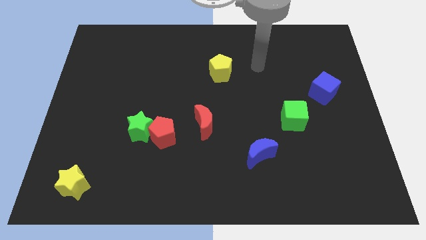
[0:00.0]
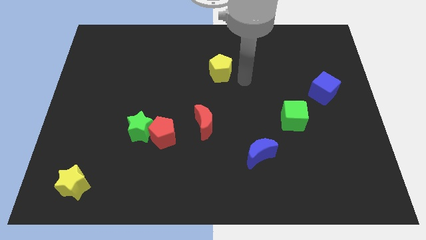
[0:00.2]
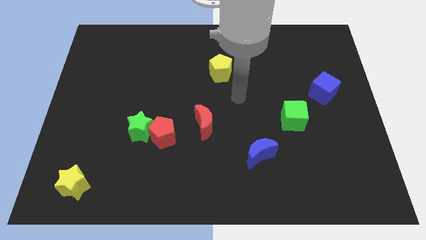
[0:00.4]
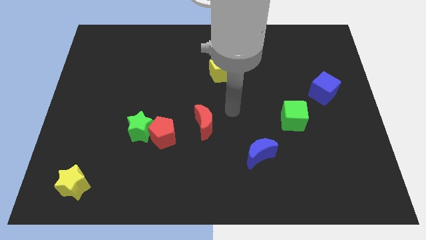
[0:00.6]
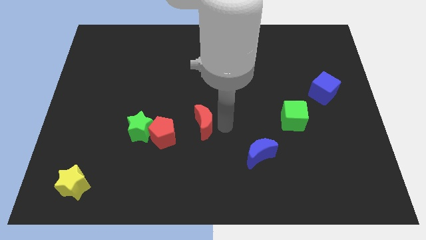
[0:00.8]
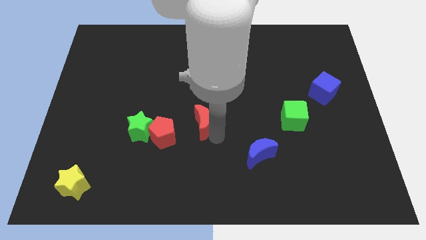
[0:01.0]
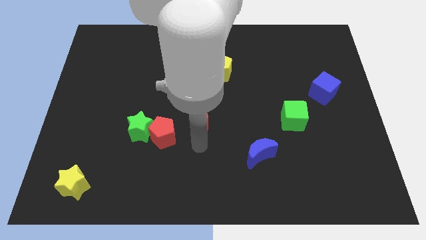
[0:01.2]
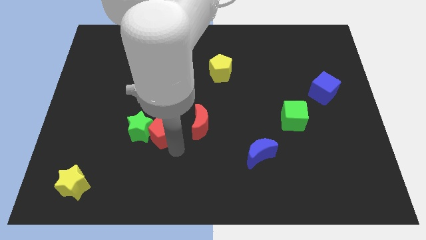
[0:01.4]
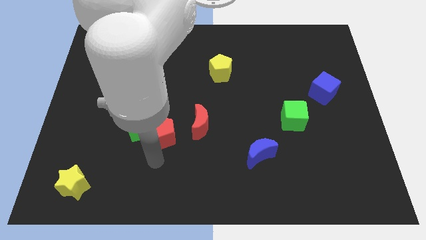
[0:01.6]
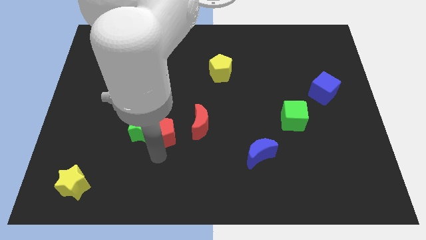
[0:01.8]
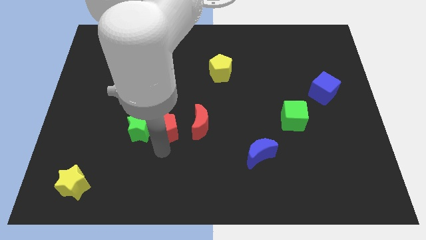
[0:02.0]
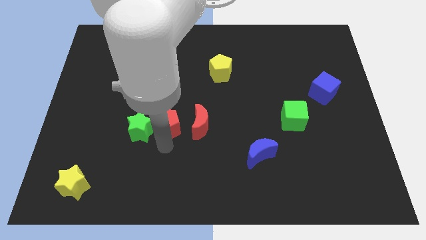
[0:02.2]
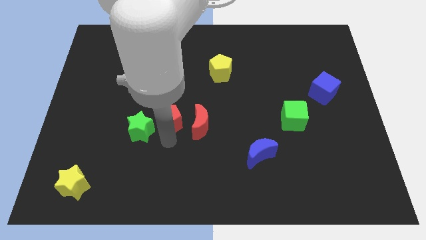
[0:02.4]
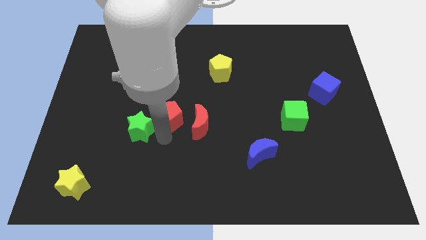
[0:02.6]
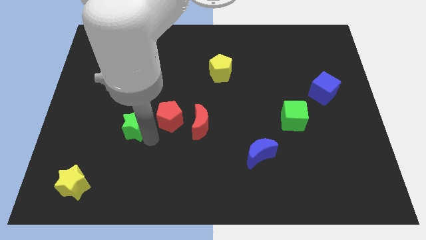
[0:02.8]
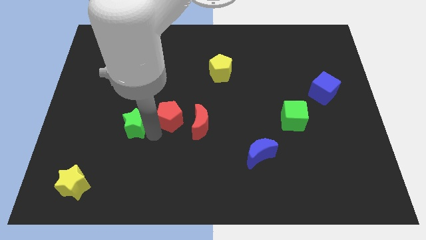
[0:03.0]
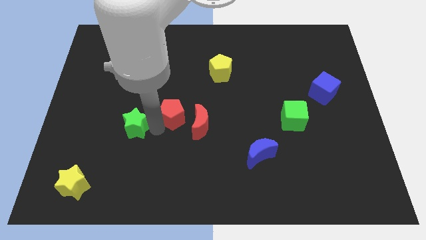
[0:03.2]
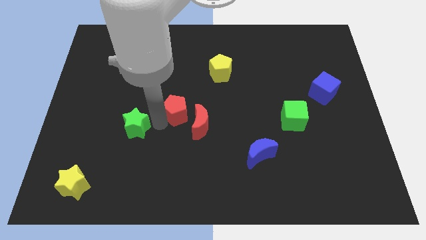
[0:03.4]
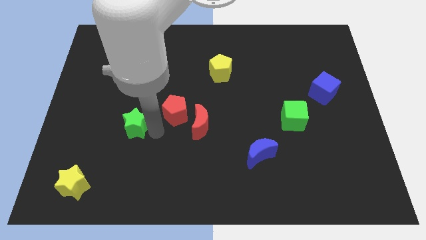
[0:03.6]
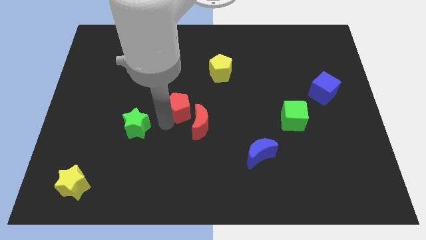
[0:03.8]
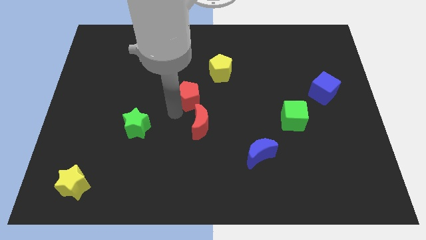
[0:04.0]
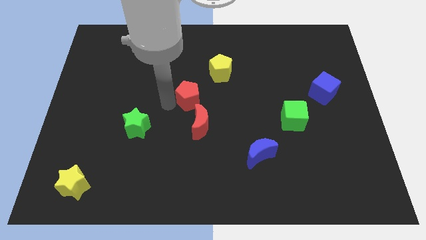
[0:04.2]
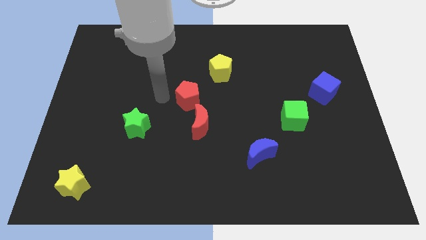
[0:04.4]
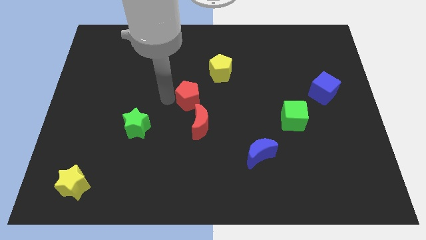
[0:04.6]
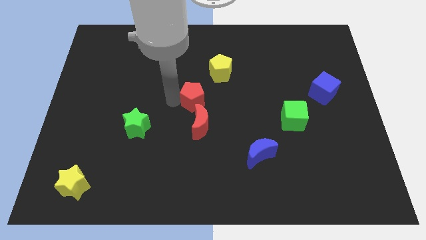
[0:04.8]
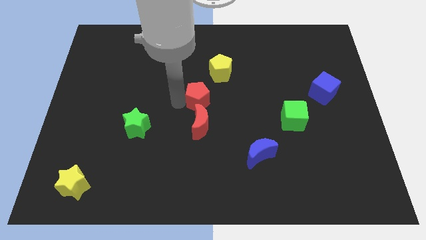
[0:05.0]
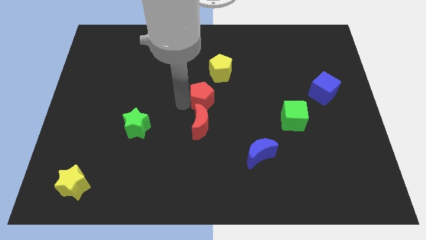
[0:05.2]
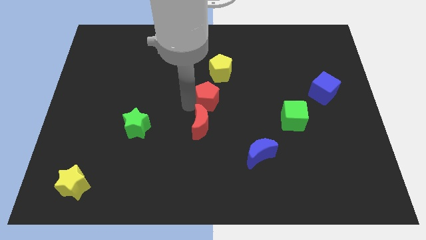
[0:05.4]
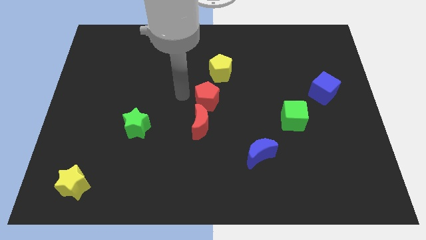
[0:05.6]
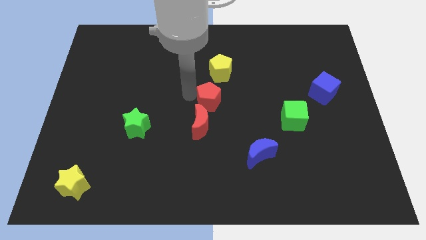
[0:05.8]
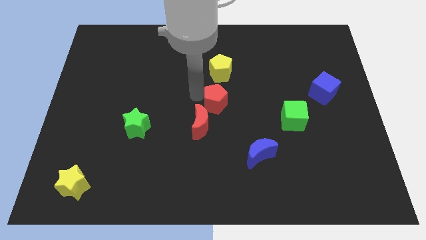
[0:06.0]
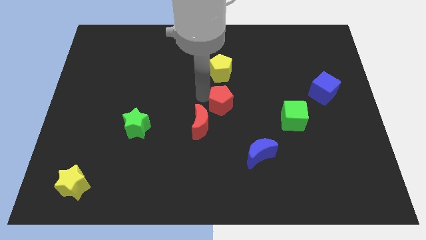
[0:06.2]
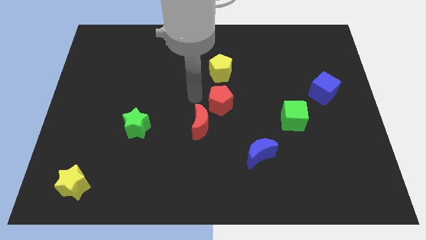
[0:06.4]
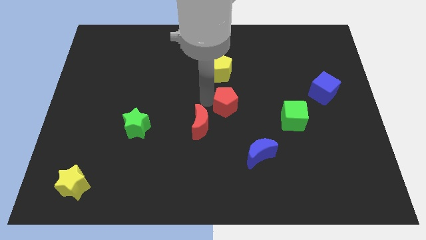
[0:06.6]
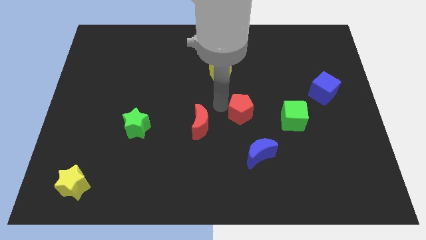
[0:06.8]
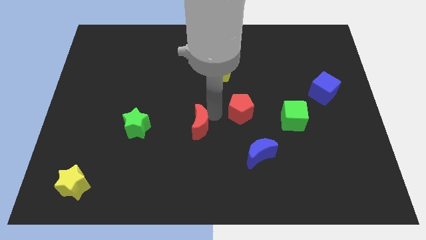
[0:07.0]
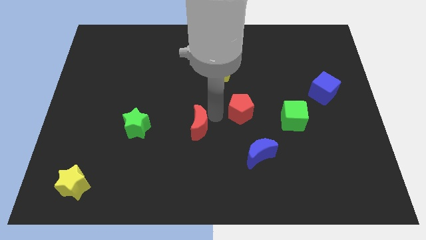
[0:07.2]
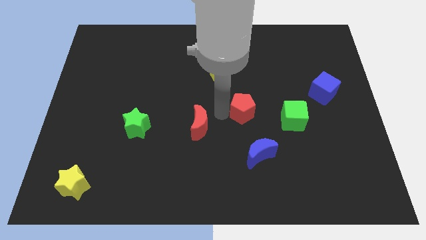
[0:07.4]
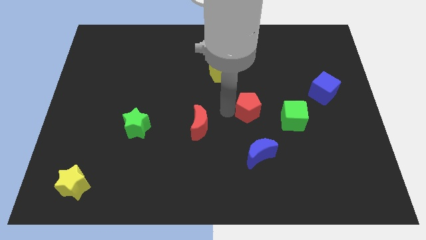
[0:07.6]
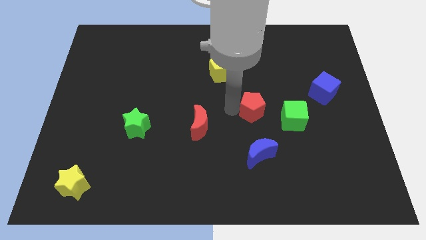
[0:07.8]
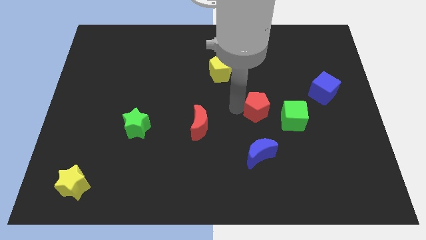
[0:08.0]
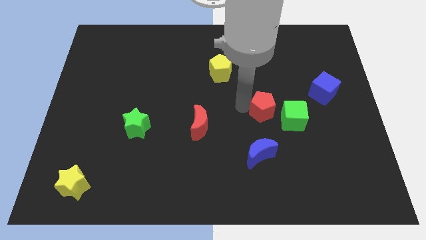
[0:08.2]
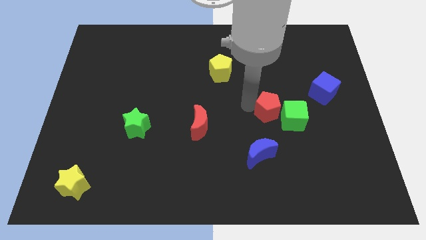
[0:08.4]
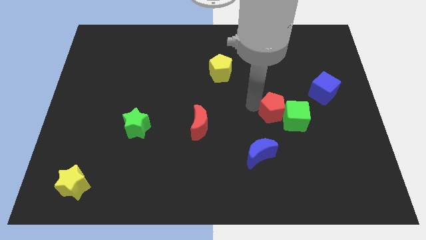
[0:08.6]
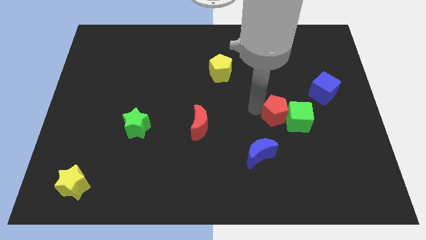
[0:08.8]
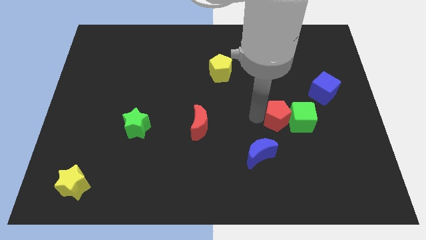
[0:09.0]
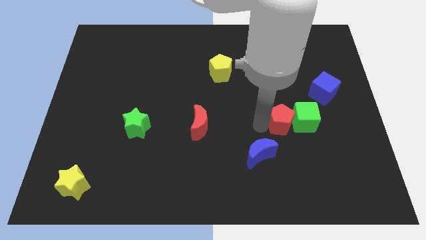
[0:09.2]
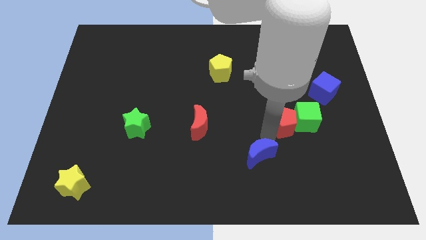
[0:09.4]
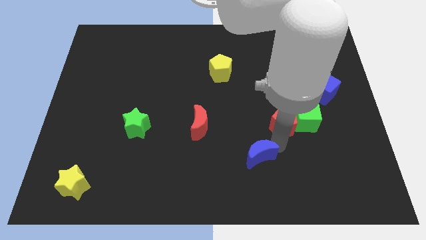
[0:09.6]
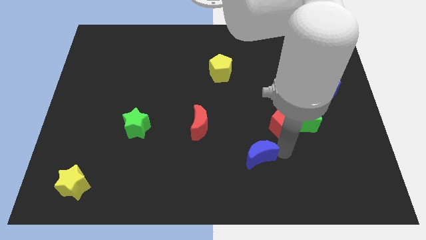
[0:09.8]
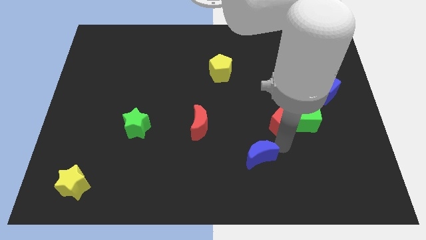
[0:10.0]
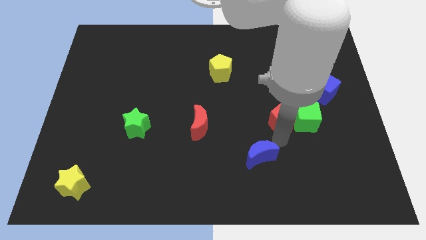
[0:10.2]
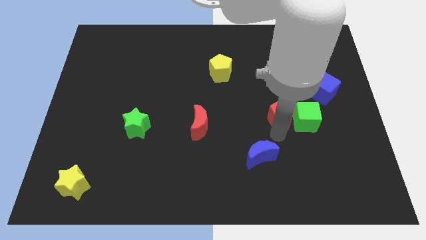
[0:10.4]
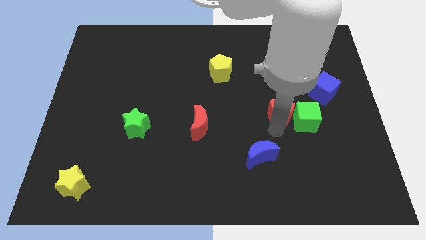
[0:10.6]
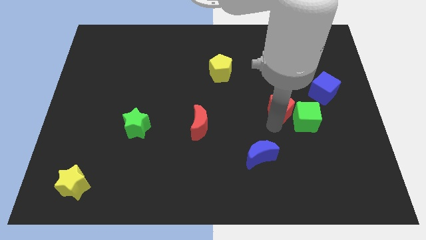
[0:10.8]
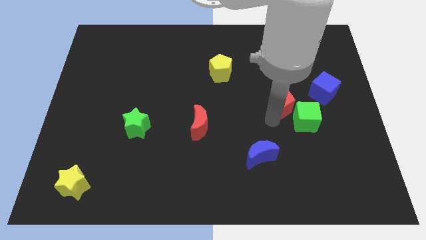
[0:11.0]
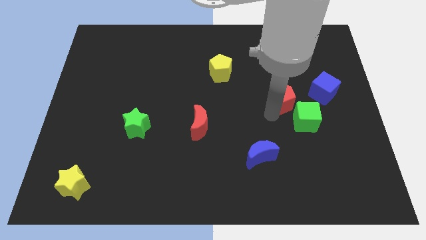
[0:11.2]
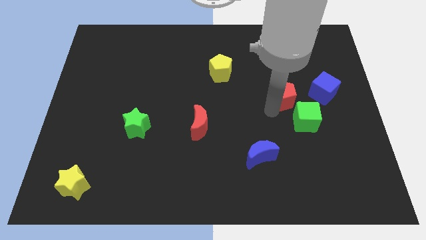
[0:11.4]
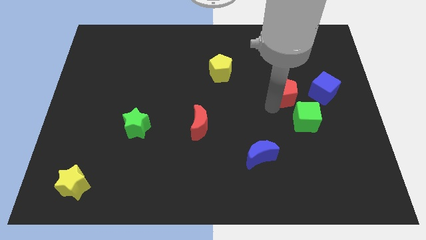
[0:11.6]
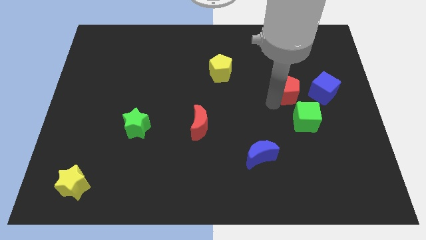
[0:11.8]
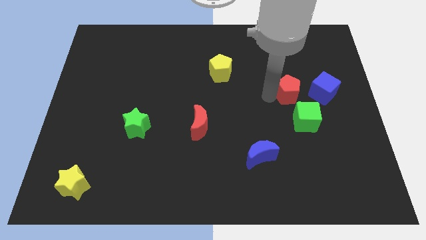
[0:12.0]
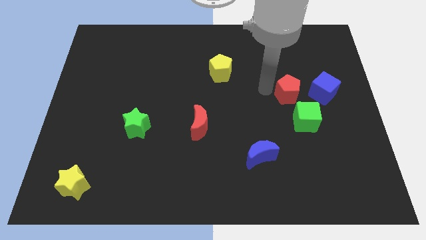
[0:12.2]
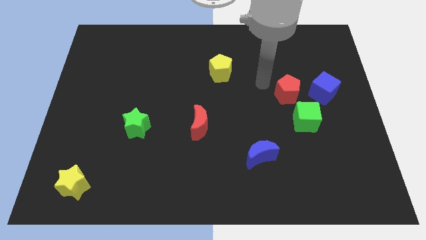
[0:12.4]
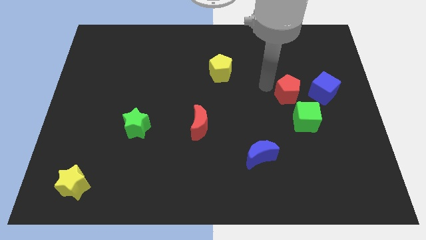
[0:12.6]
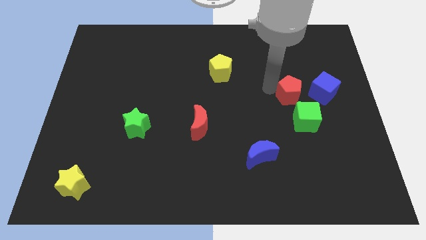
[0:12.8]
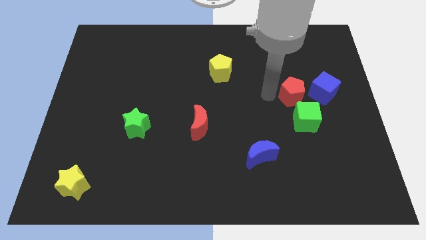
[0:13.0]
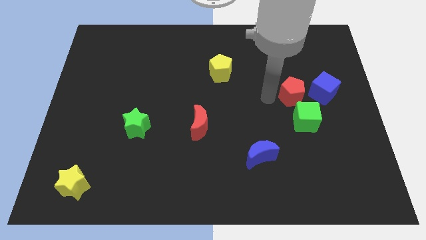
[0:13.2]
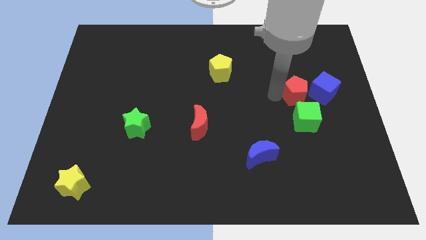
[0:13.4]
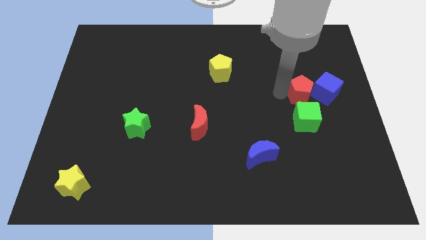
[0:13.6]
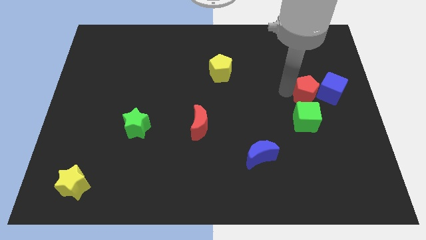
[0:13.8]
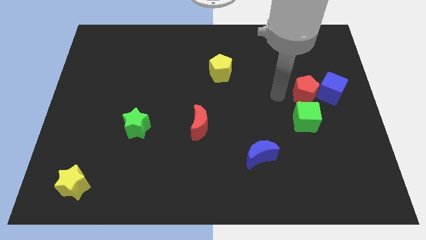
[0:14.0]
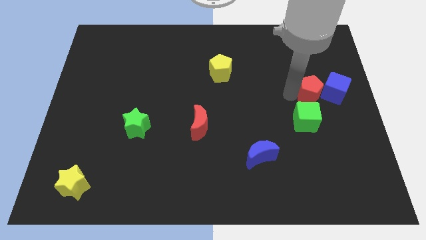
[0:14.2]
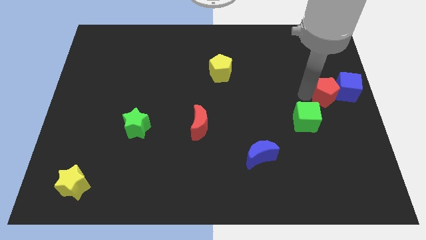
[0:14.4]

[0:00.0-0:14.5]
put the red pentagon to the blue cube
